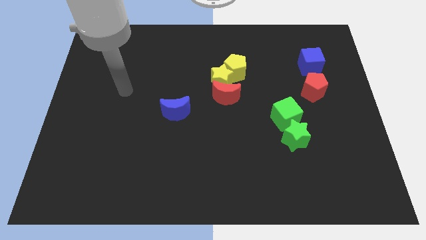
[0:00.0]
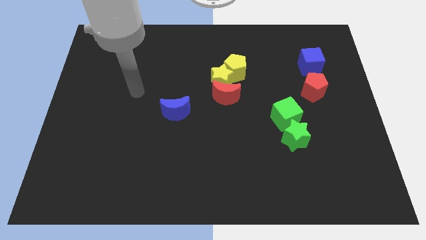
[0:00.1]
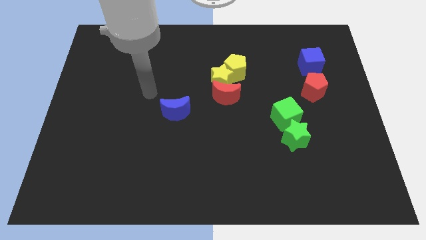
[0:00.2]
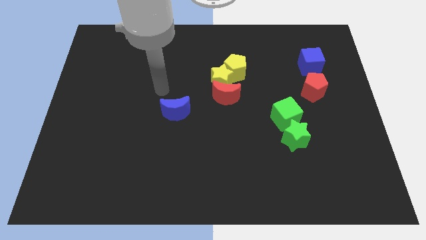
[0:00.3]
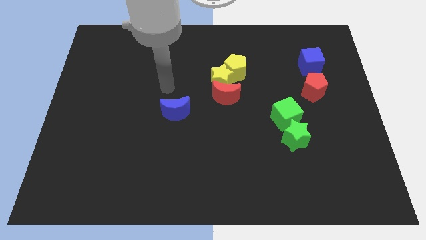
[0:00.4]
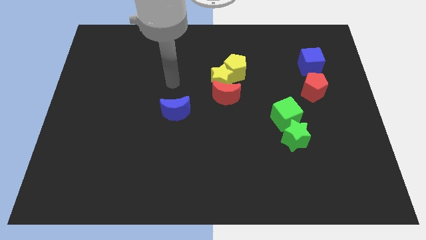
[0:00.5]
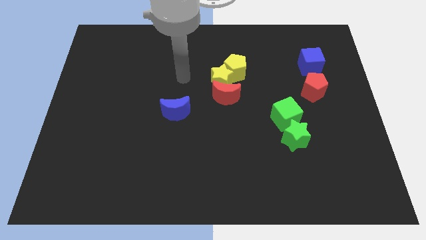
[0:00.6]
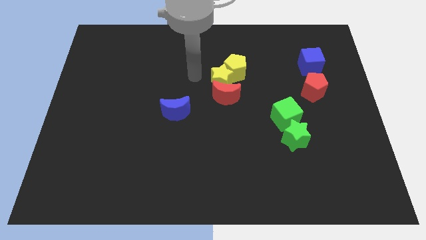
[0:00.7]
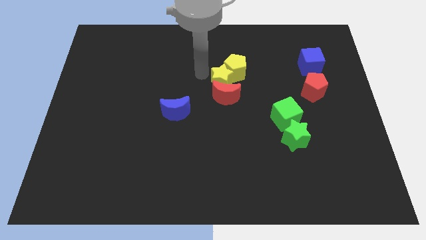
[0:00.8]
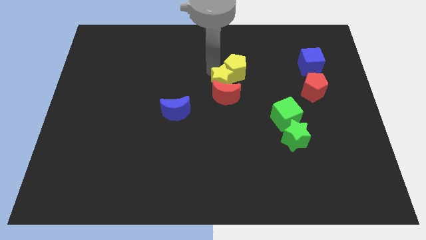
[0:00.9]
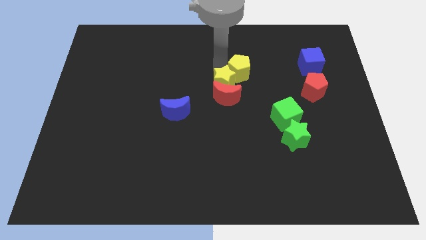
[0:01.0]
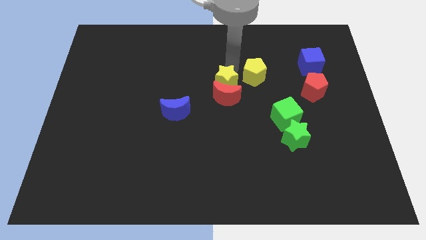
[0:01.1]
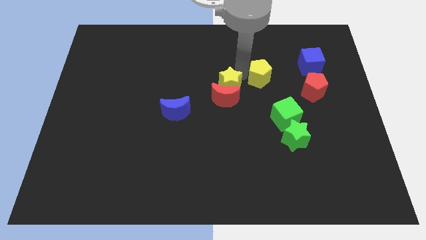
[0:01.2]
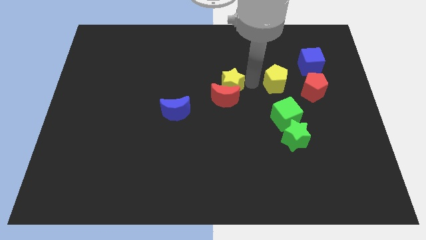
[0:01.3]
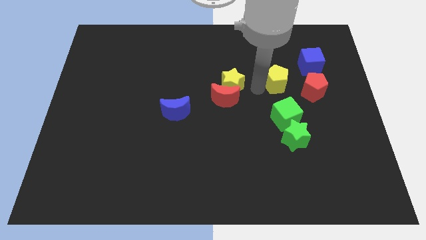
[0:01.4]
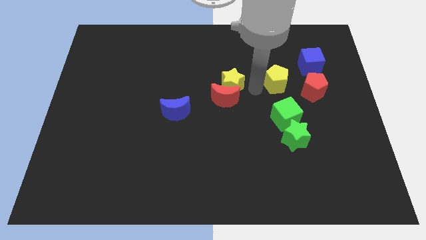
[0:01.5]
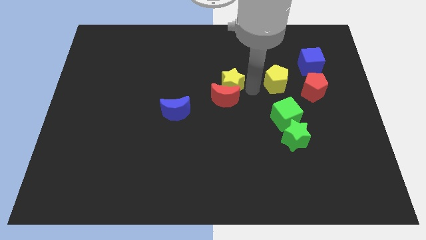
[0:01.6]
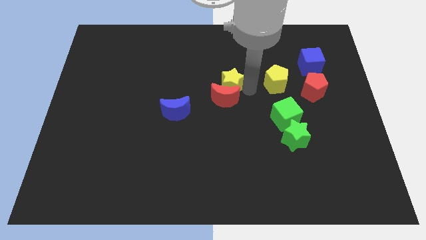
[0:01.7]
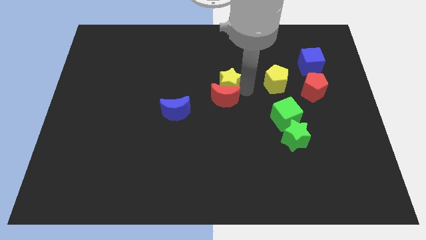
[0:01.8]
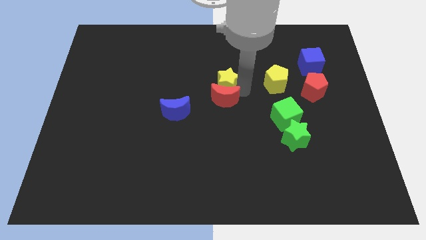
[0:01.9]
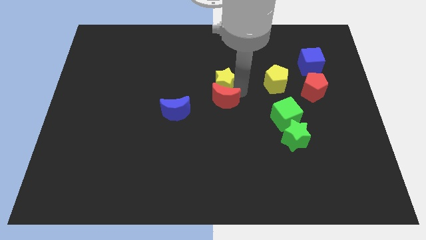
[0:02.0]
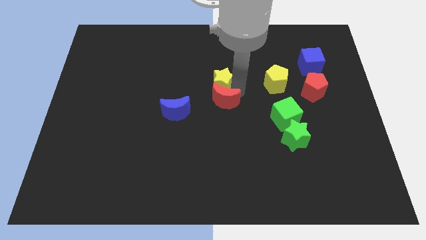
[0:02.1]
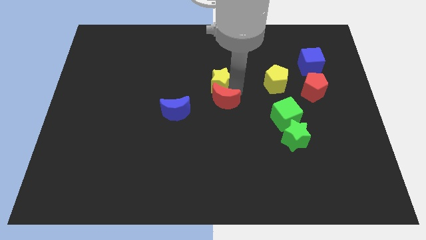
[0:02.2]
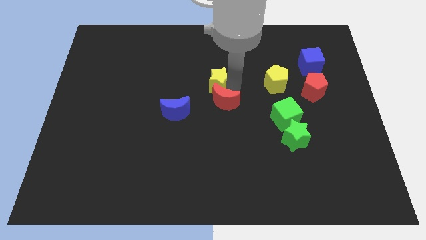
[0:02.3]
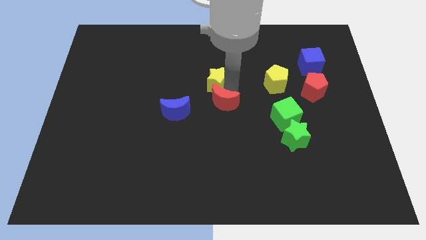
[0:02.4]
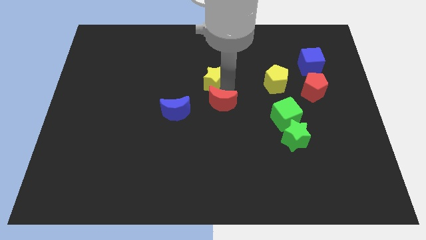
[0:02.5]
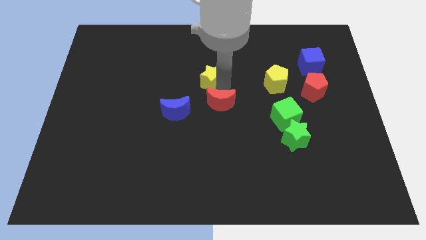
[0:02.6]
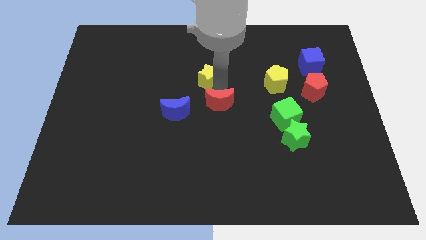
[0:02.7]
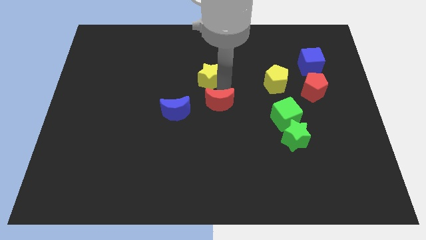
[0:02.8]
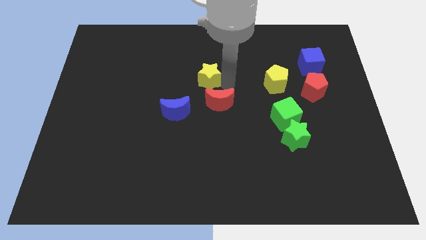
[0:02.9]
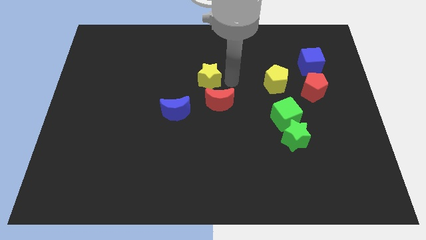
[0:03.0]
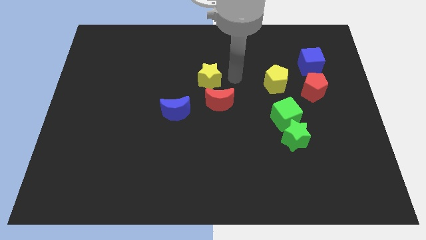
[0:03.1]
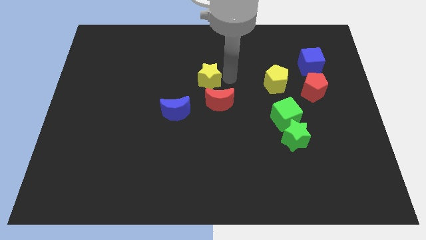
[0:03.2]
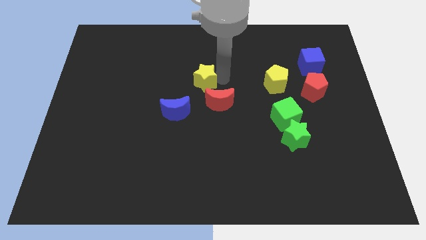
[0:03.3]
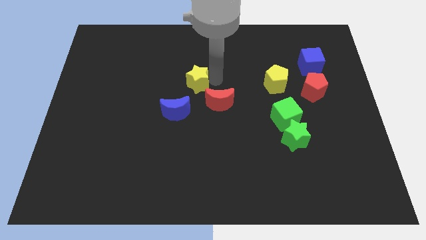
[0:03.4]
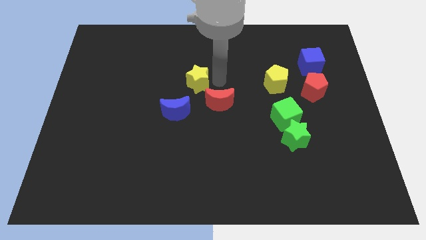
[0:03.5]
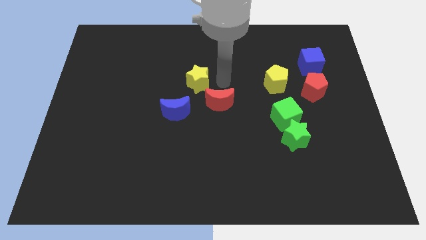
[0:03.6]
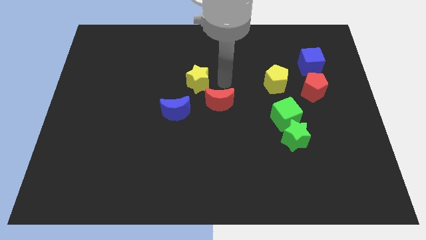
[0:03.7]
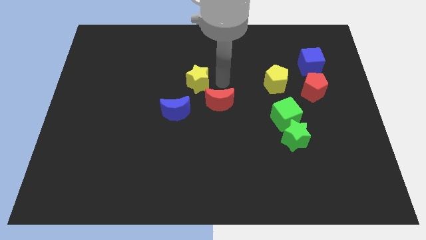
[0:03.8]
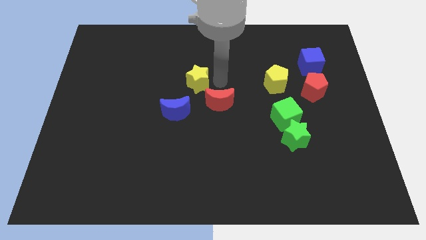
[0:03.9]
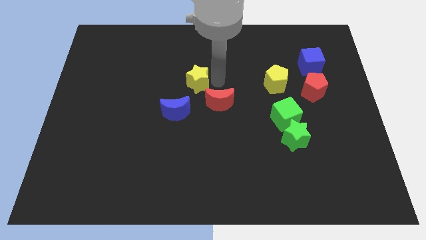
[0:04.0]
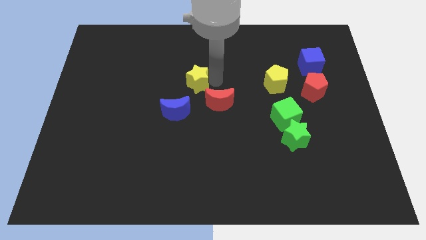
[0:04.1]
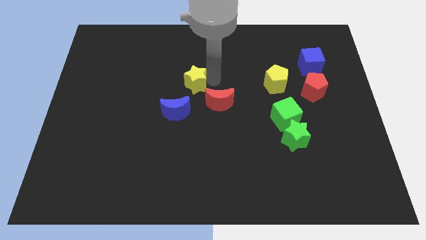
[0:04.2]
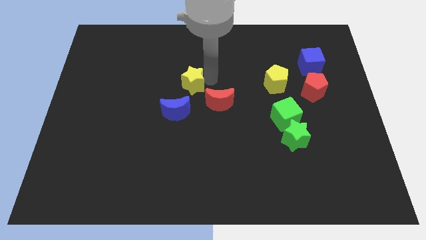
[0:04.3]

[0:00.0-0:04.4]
slide the yellow star slightly left

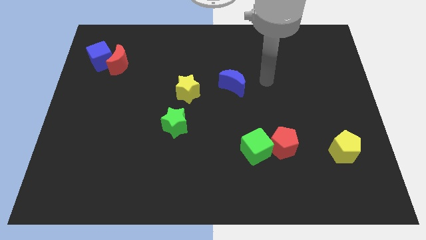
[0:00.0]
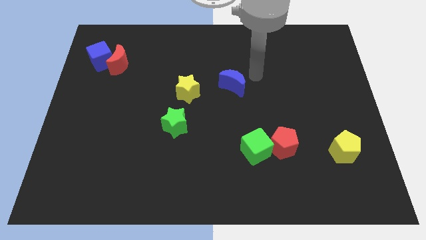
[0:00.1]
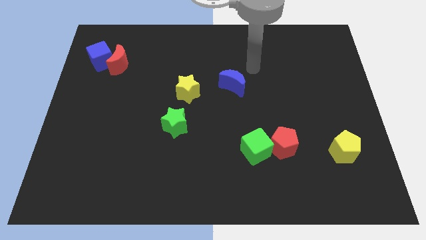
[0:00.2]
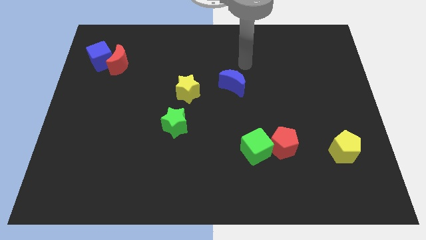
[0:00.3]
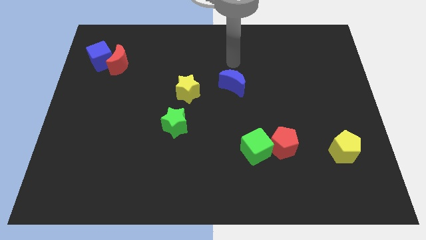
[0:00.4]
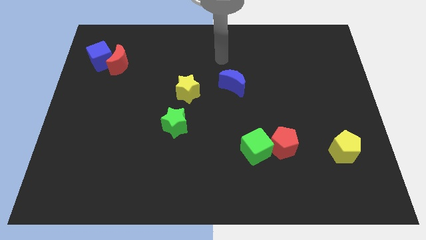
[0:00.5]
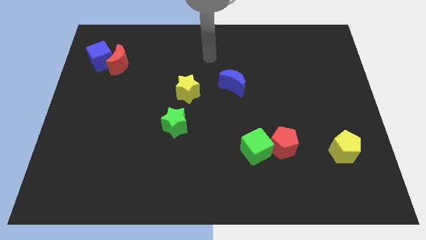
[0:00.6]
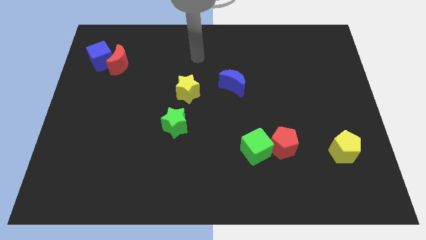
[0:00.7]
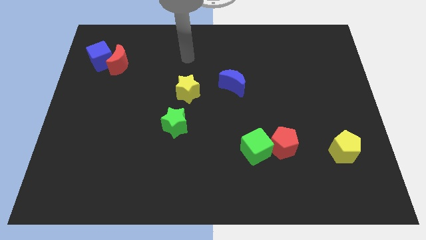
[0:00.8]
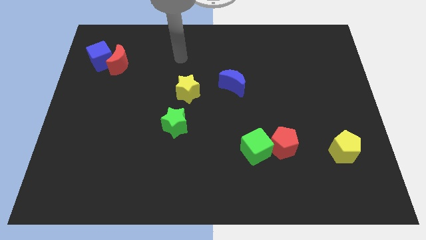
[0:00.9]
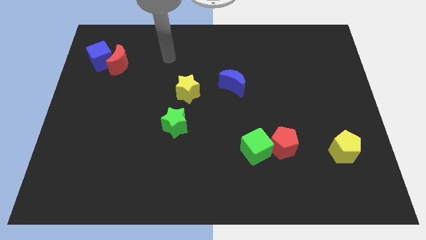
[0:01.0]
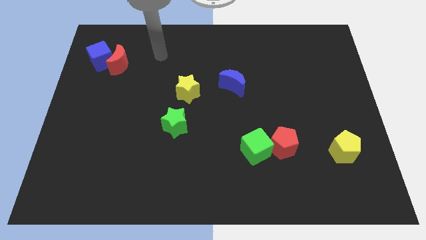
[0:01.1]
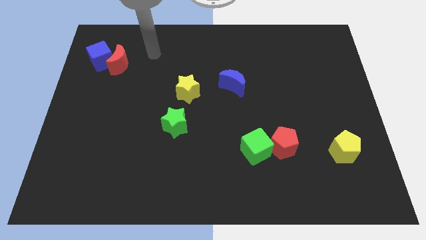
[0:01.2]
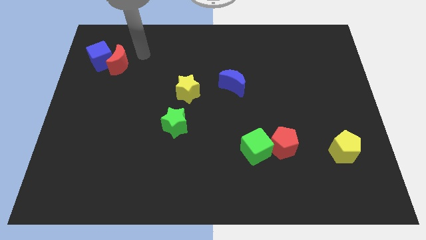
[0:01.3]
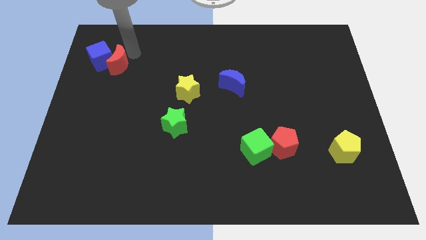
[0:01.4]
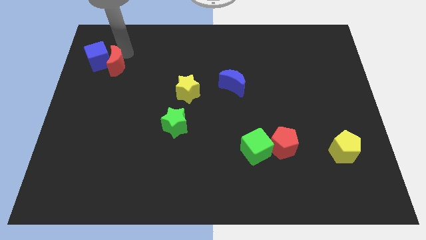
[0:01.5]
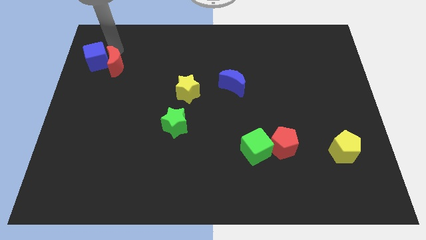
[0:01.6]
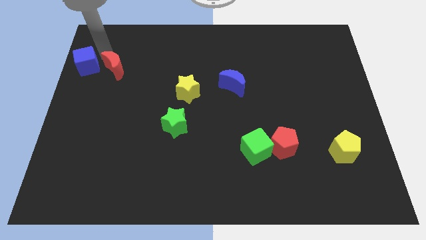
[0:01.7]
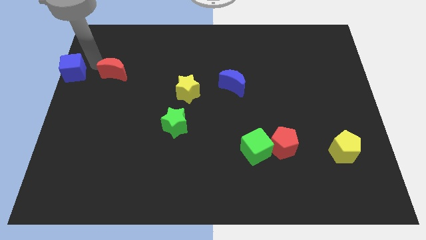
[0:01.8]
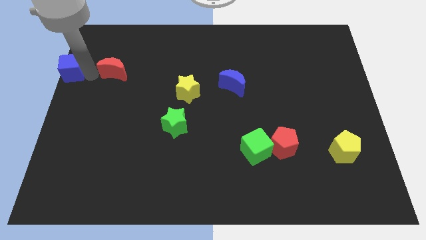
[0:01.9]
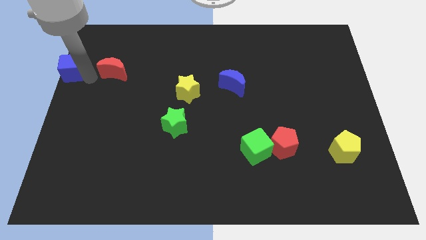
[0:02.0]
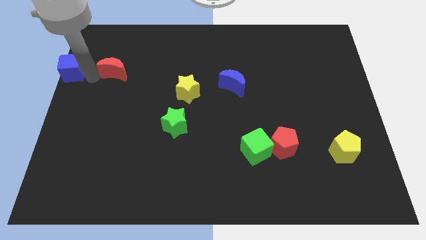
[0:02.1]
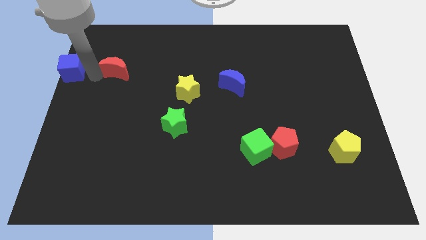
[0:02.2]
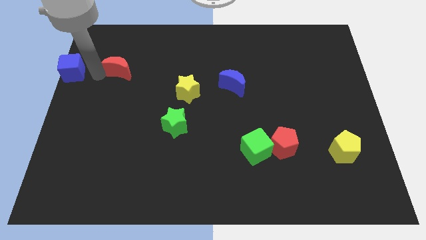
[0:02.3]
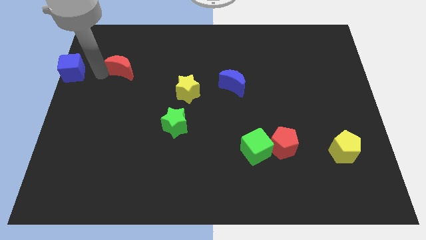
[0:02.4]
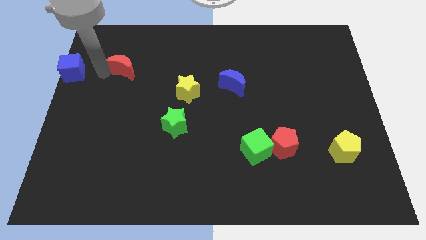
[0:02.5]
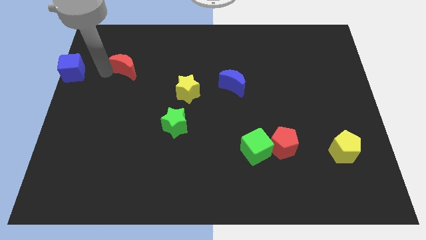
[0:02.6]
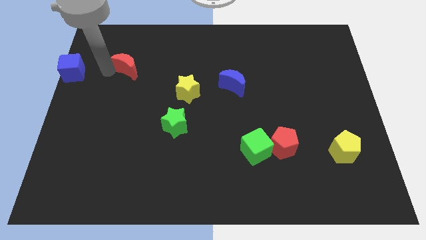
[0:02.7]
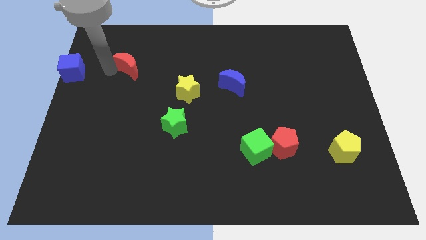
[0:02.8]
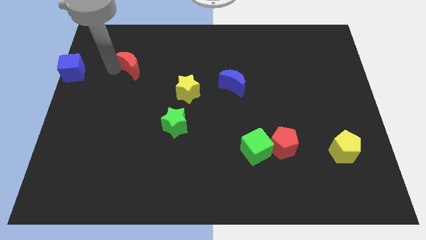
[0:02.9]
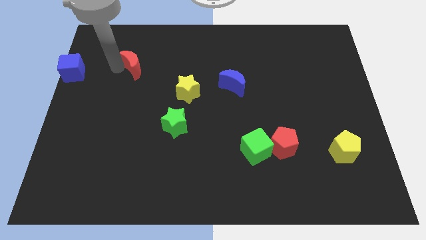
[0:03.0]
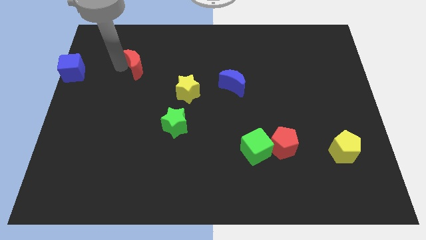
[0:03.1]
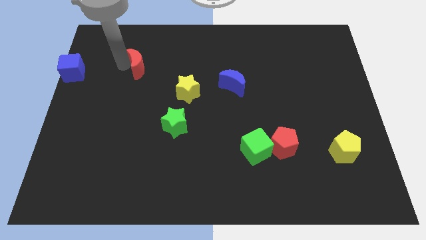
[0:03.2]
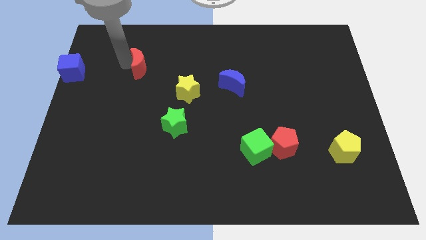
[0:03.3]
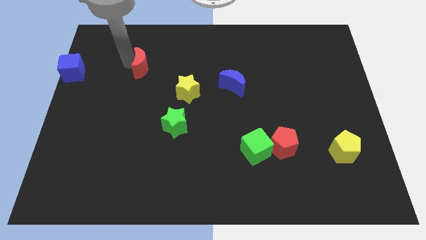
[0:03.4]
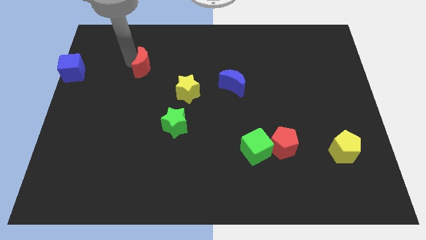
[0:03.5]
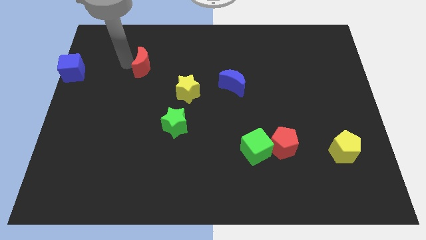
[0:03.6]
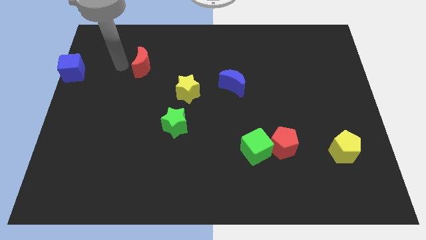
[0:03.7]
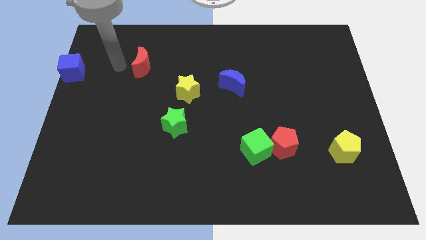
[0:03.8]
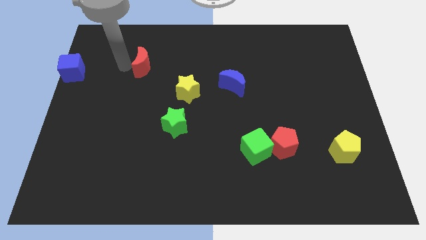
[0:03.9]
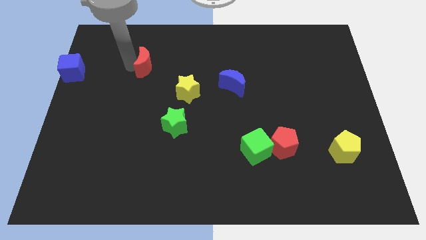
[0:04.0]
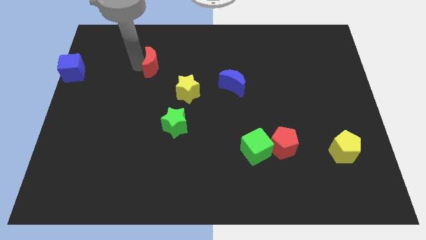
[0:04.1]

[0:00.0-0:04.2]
slightly move the red moon to the right
